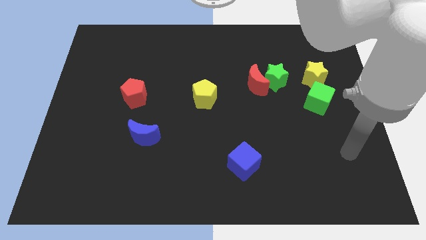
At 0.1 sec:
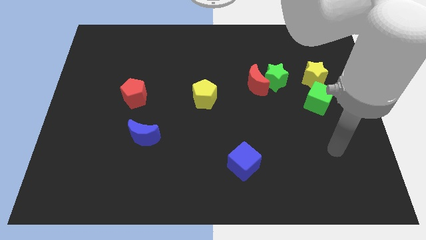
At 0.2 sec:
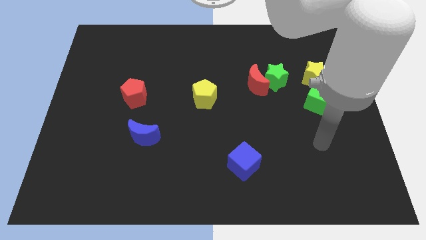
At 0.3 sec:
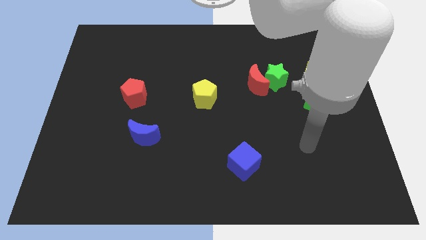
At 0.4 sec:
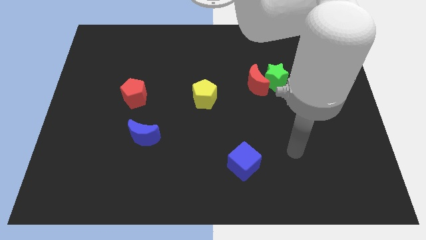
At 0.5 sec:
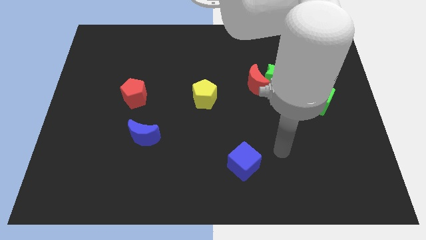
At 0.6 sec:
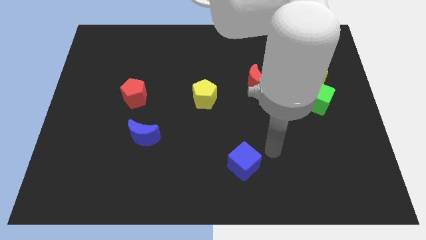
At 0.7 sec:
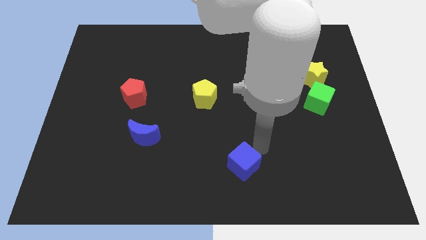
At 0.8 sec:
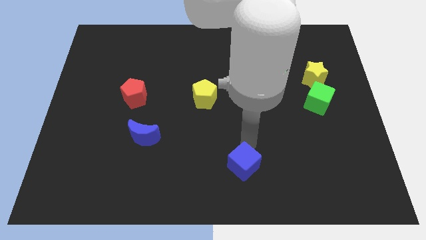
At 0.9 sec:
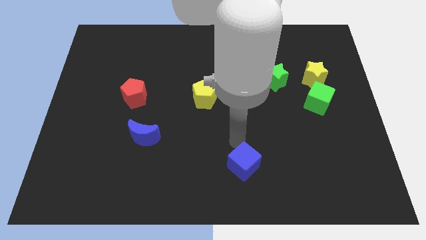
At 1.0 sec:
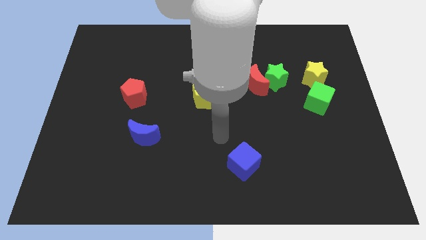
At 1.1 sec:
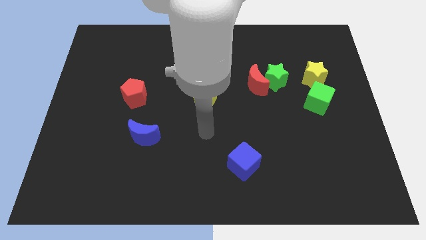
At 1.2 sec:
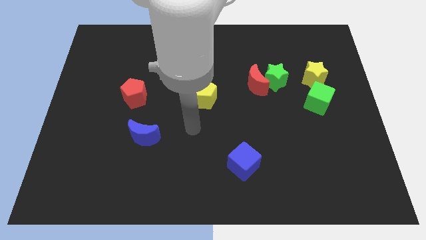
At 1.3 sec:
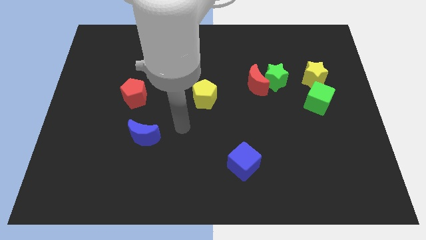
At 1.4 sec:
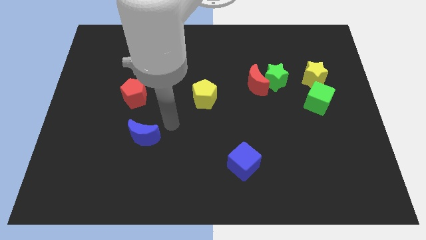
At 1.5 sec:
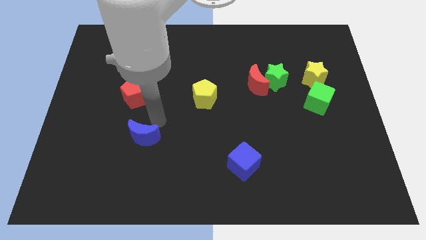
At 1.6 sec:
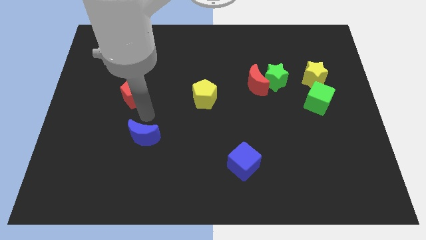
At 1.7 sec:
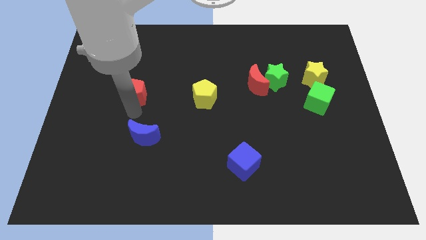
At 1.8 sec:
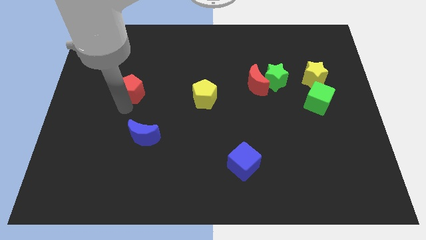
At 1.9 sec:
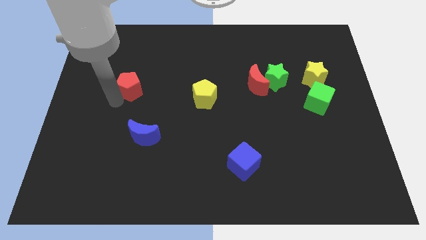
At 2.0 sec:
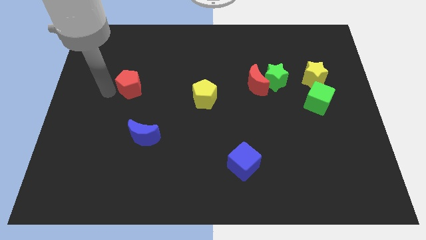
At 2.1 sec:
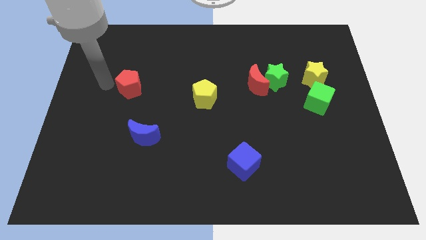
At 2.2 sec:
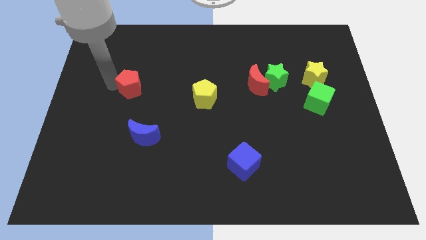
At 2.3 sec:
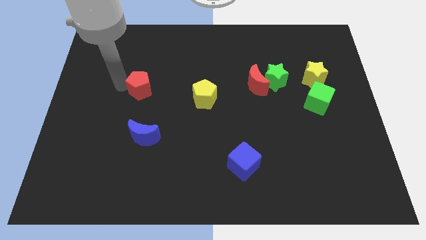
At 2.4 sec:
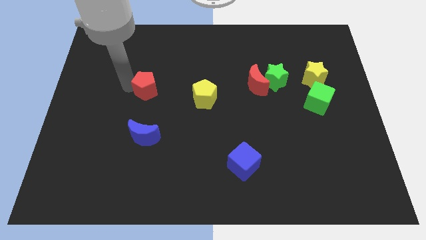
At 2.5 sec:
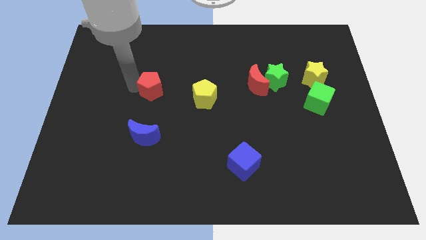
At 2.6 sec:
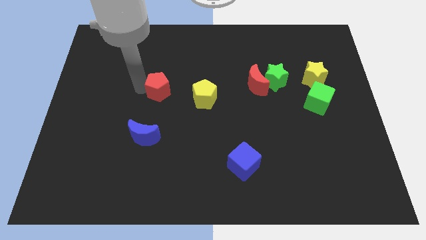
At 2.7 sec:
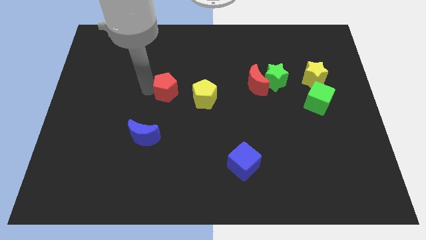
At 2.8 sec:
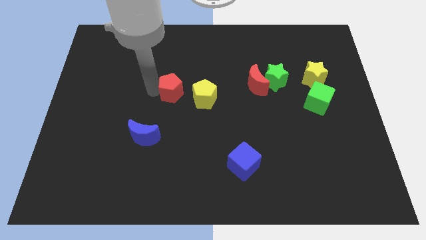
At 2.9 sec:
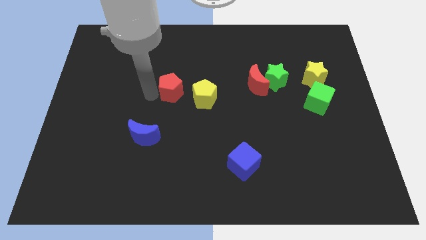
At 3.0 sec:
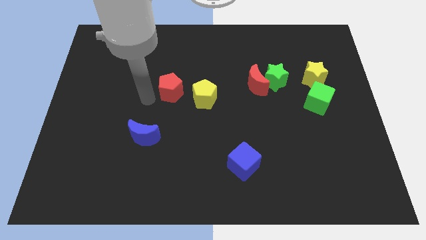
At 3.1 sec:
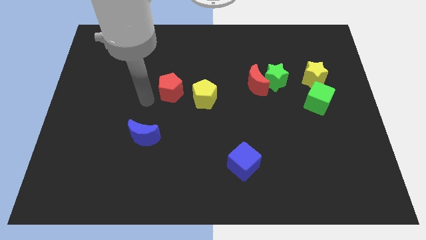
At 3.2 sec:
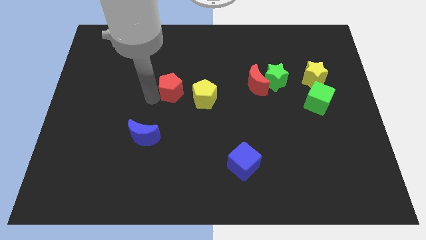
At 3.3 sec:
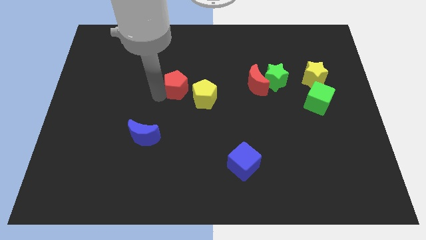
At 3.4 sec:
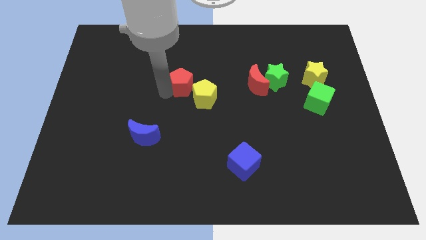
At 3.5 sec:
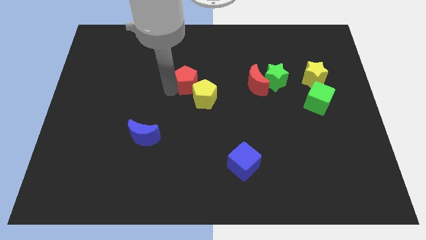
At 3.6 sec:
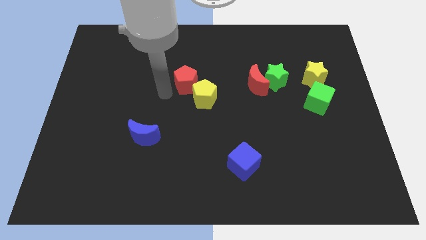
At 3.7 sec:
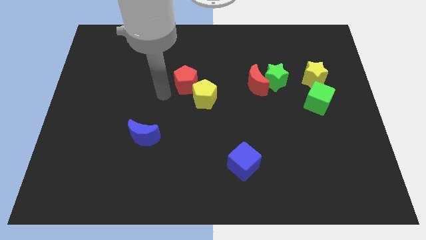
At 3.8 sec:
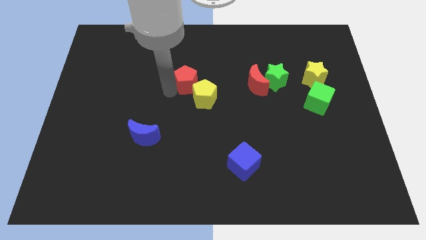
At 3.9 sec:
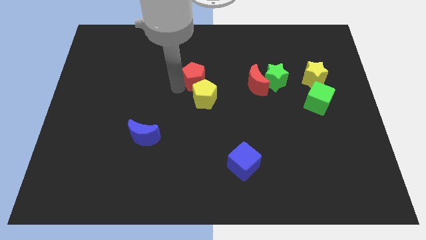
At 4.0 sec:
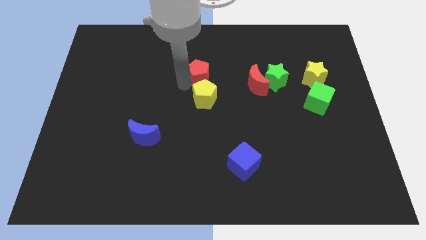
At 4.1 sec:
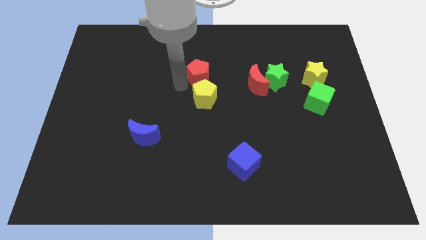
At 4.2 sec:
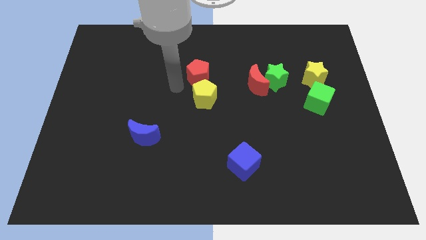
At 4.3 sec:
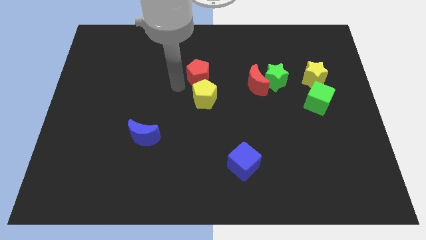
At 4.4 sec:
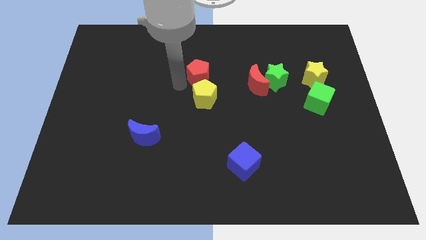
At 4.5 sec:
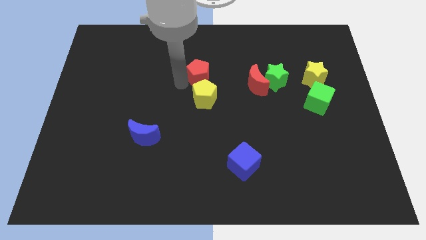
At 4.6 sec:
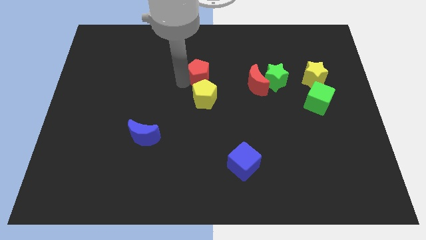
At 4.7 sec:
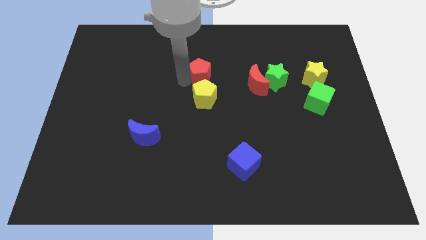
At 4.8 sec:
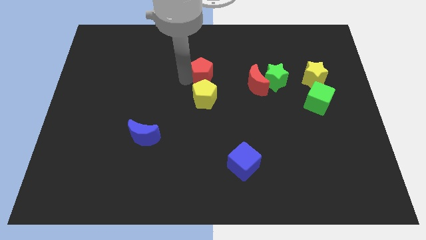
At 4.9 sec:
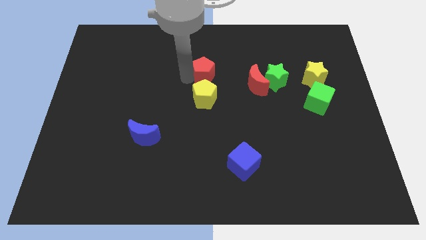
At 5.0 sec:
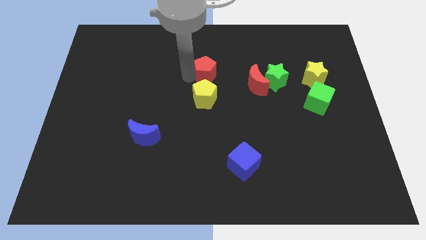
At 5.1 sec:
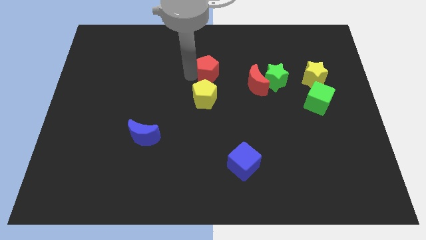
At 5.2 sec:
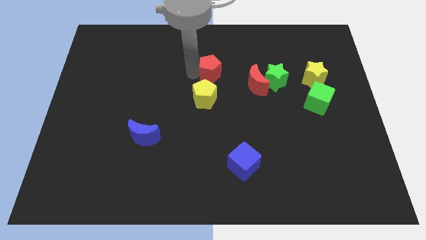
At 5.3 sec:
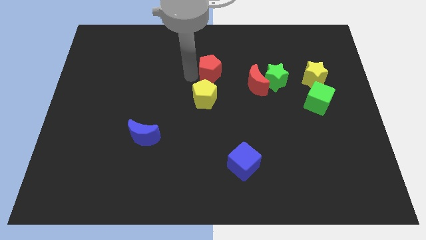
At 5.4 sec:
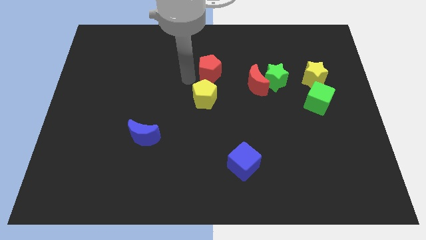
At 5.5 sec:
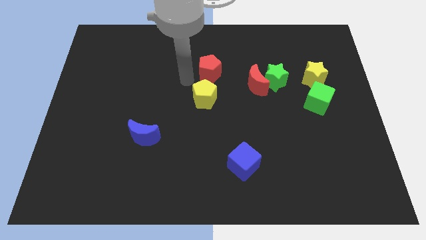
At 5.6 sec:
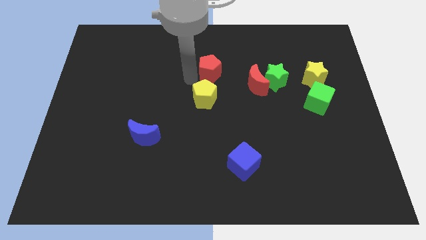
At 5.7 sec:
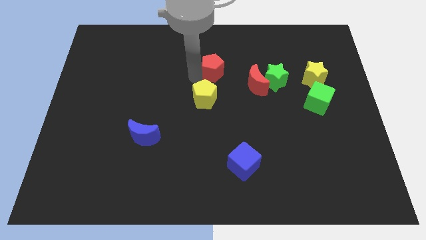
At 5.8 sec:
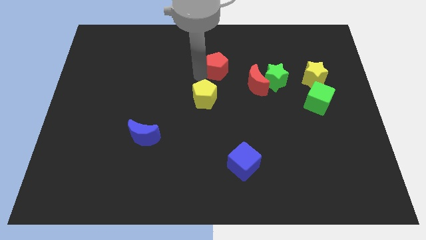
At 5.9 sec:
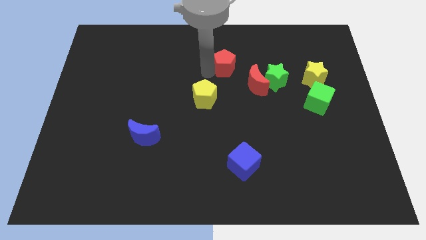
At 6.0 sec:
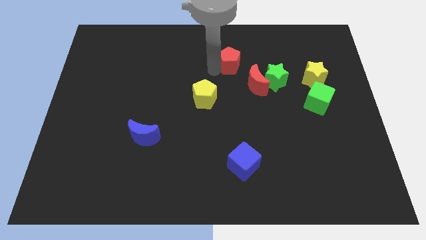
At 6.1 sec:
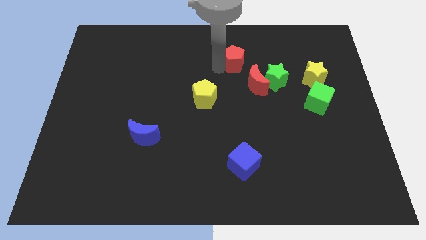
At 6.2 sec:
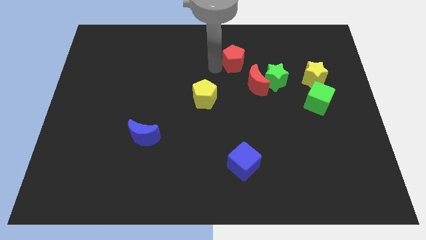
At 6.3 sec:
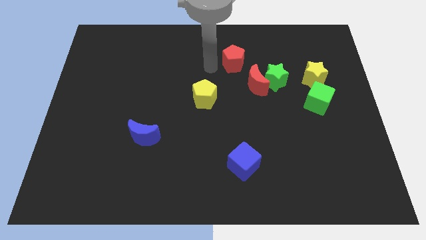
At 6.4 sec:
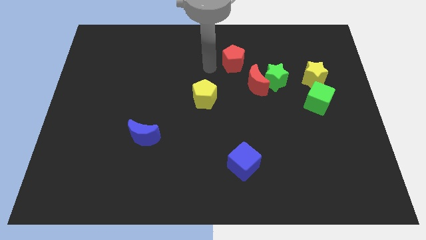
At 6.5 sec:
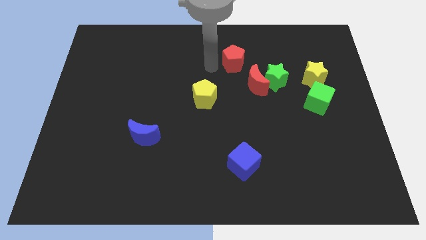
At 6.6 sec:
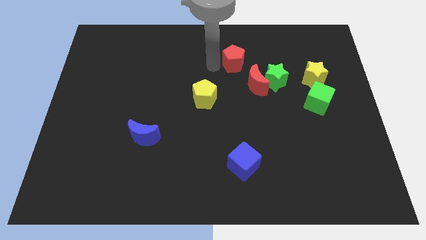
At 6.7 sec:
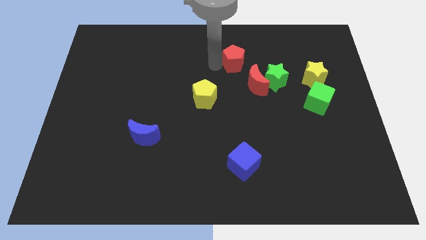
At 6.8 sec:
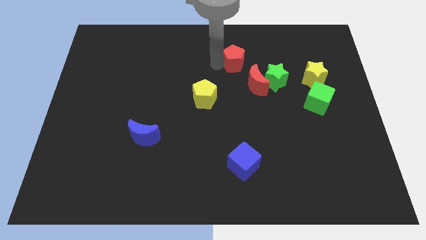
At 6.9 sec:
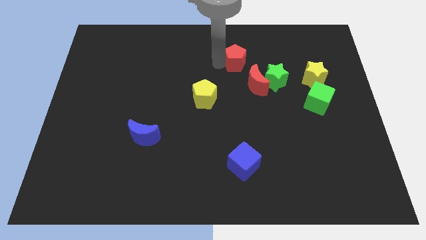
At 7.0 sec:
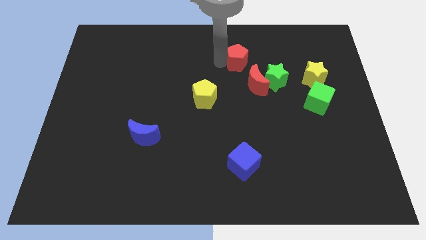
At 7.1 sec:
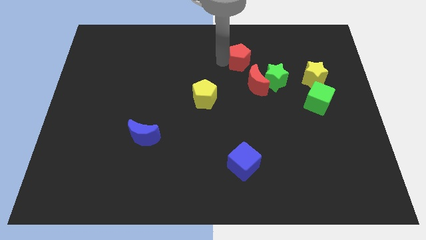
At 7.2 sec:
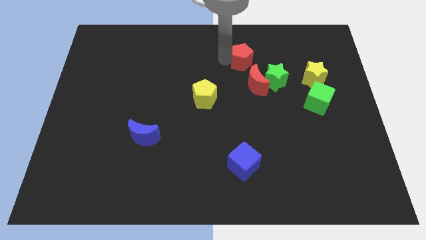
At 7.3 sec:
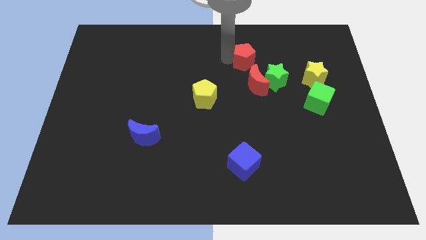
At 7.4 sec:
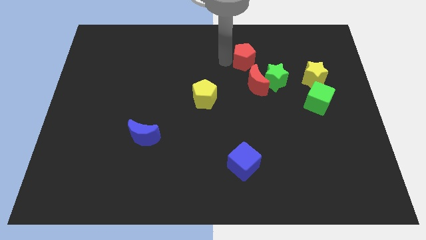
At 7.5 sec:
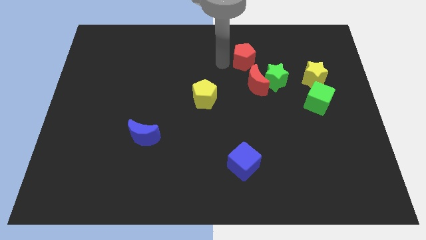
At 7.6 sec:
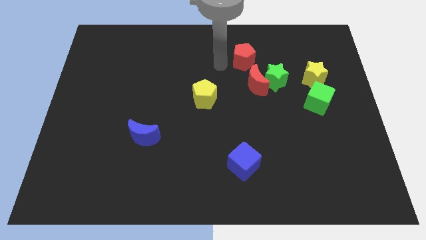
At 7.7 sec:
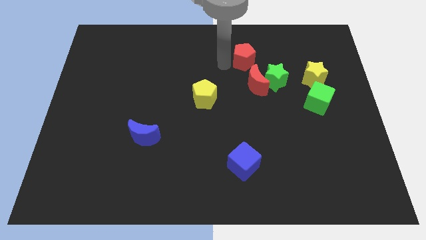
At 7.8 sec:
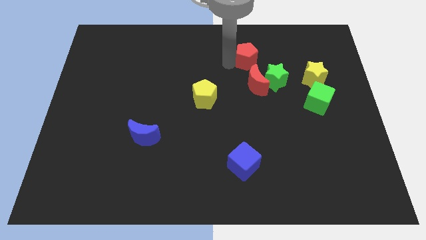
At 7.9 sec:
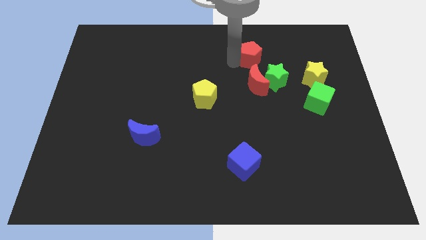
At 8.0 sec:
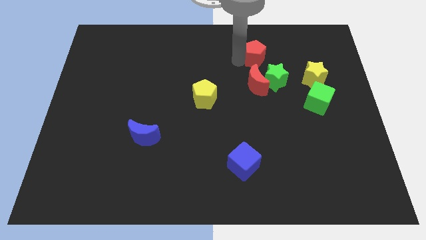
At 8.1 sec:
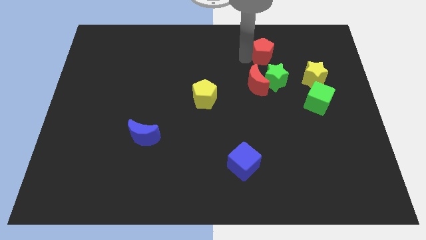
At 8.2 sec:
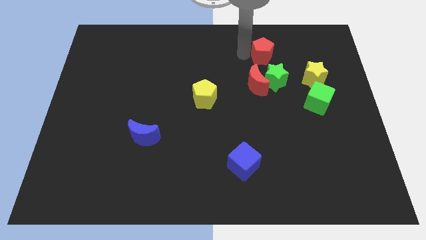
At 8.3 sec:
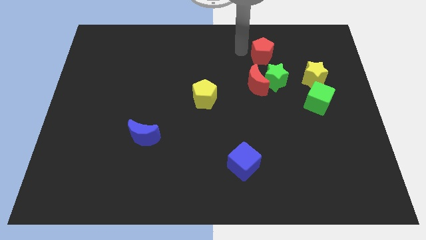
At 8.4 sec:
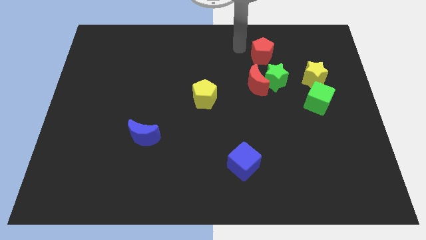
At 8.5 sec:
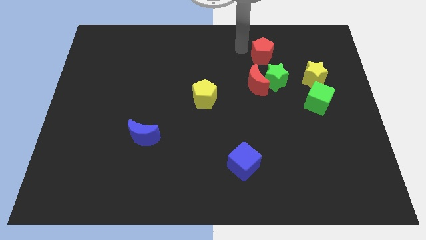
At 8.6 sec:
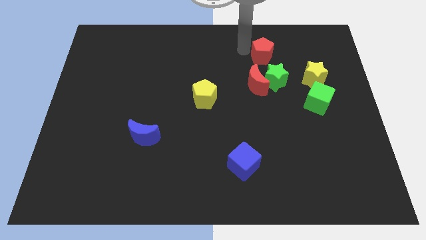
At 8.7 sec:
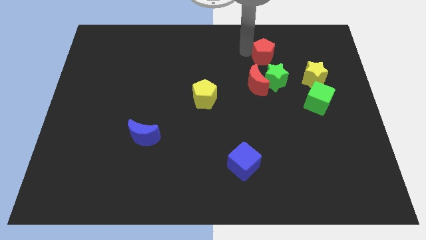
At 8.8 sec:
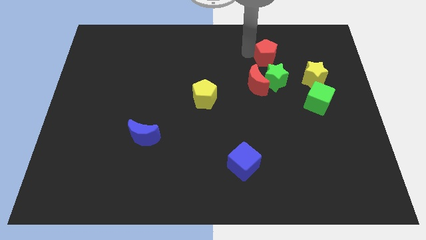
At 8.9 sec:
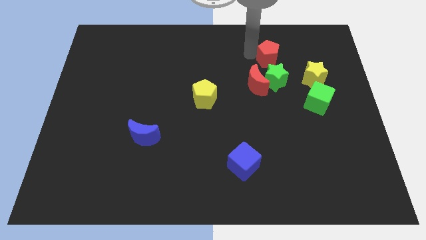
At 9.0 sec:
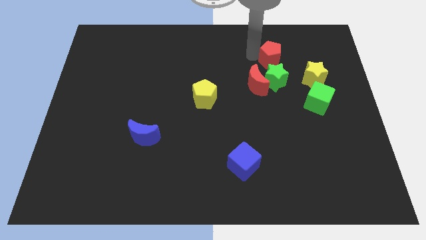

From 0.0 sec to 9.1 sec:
put the red pentagon to the top left of the yellow star
